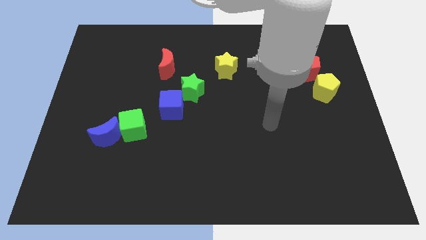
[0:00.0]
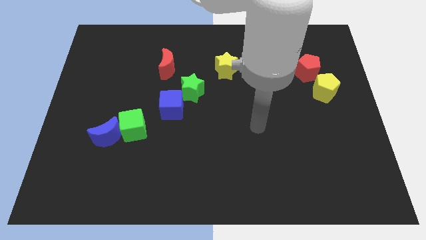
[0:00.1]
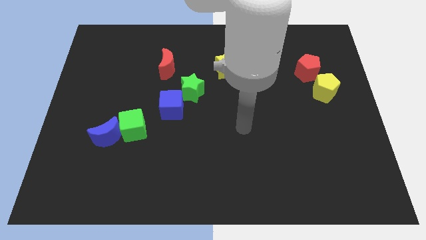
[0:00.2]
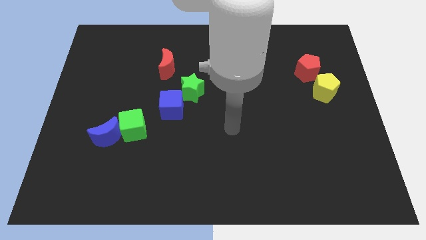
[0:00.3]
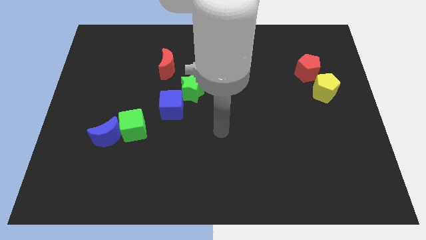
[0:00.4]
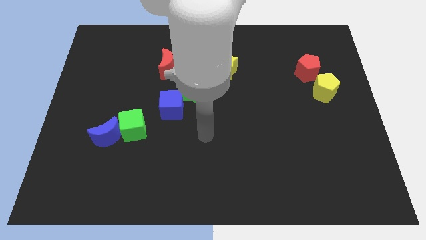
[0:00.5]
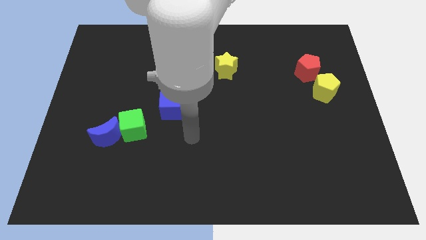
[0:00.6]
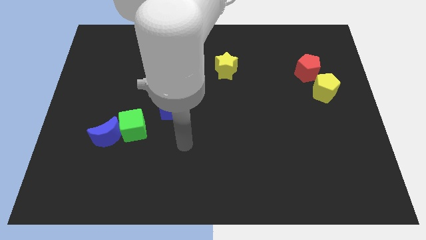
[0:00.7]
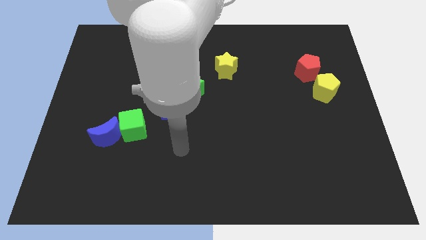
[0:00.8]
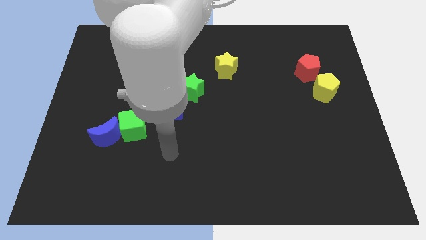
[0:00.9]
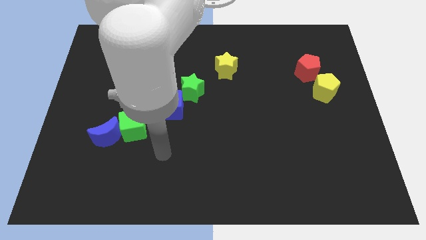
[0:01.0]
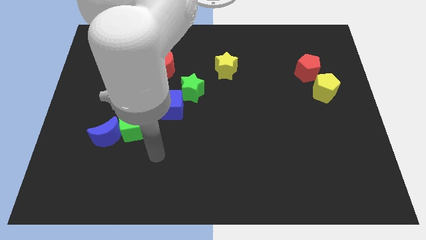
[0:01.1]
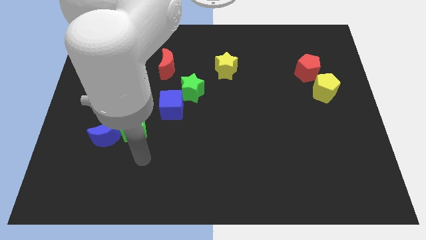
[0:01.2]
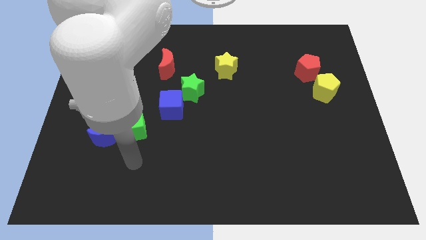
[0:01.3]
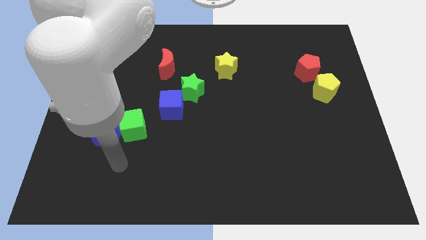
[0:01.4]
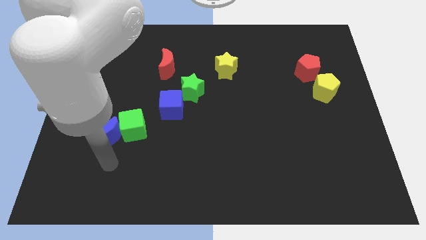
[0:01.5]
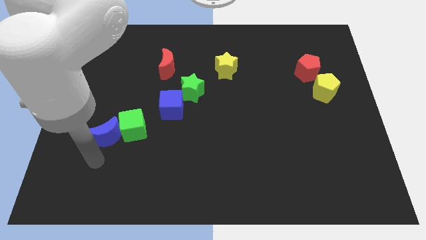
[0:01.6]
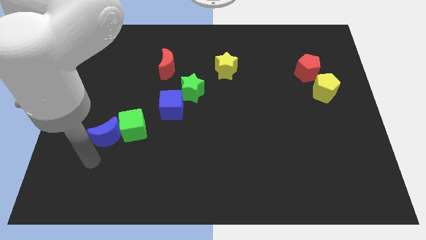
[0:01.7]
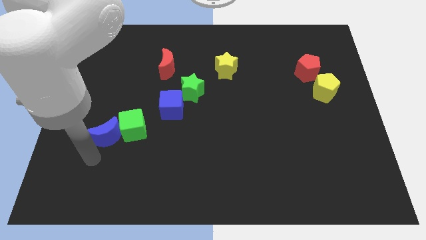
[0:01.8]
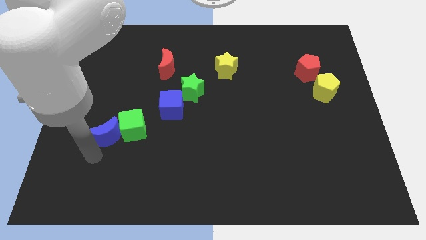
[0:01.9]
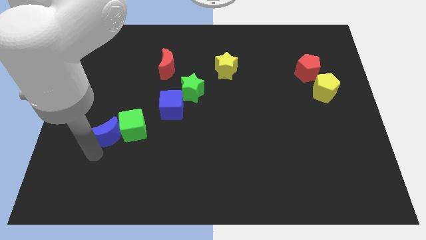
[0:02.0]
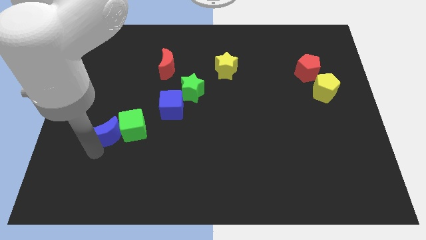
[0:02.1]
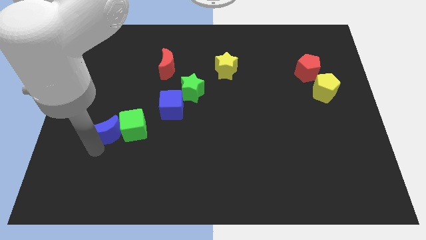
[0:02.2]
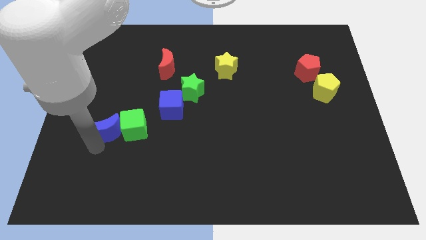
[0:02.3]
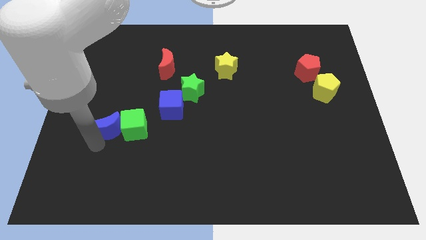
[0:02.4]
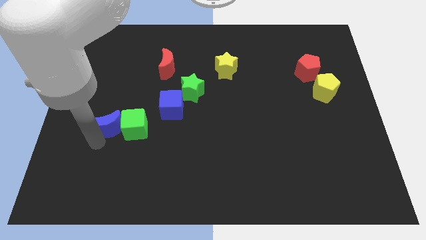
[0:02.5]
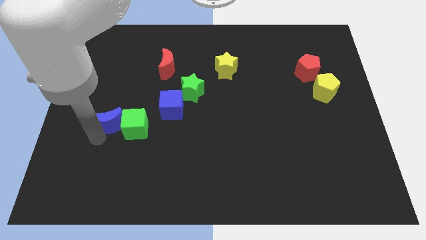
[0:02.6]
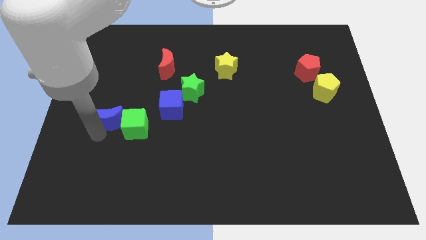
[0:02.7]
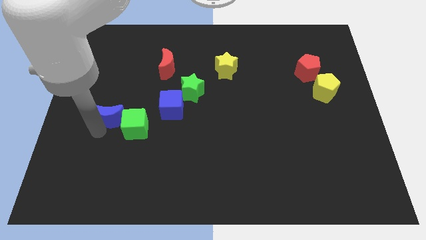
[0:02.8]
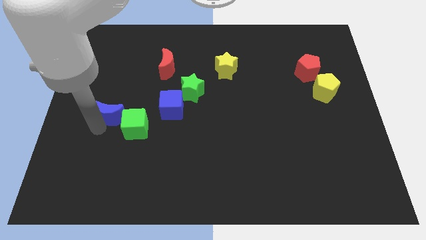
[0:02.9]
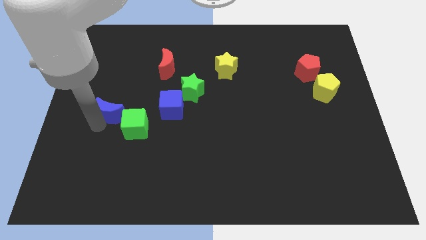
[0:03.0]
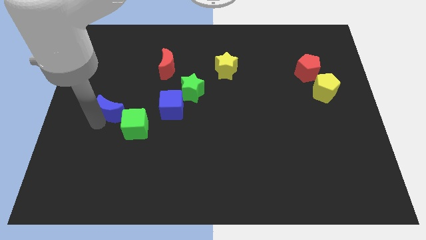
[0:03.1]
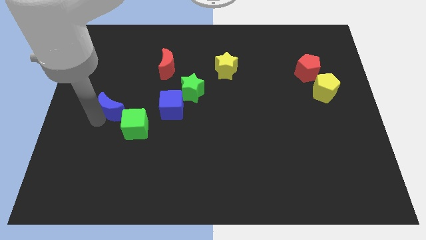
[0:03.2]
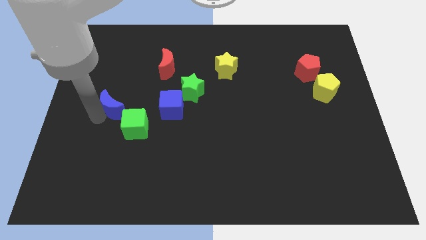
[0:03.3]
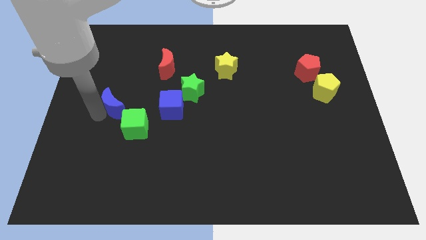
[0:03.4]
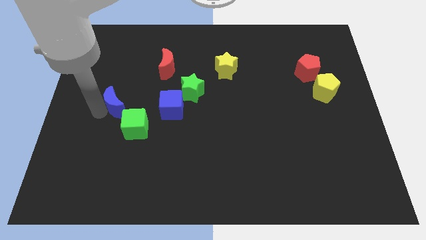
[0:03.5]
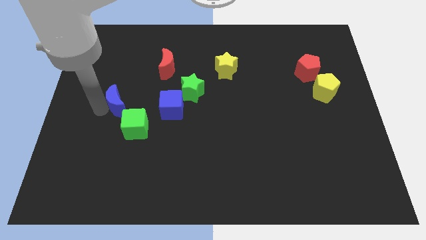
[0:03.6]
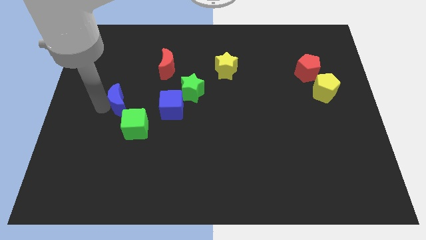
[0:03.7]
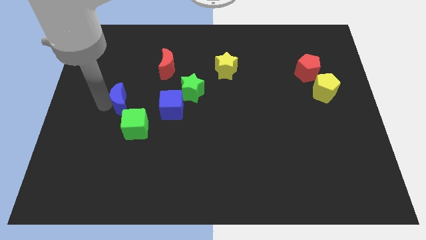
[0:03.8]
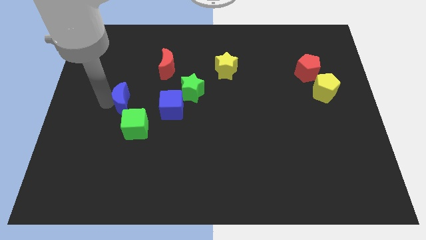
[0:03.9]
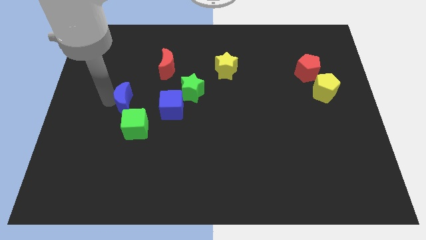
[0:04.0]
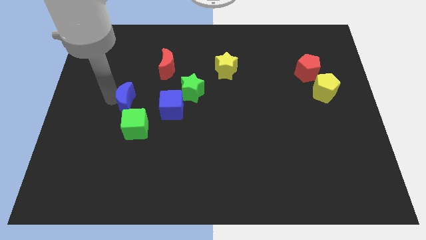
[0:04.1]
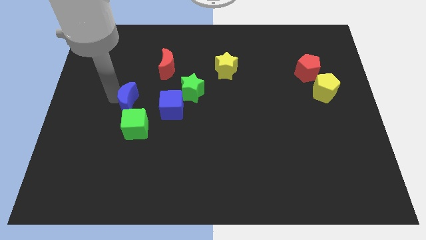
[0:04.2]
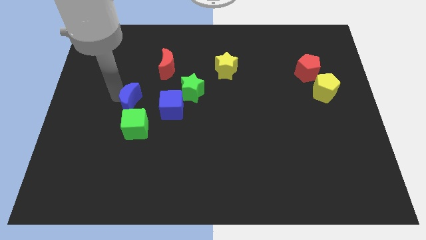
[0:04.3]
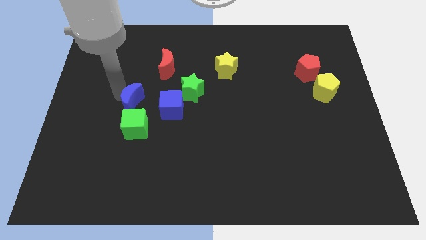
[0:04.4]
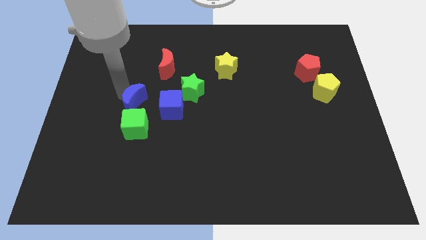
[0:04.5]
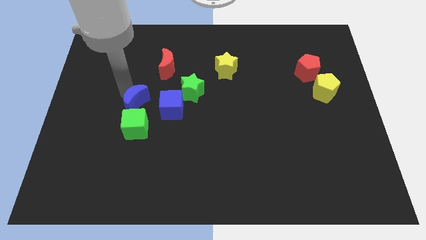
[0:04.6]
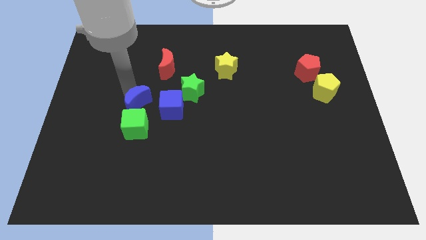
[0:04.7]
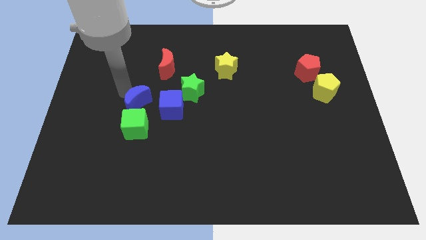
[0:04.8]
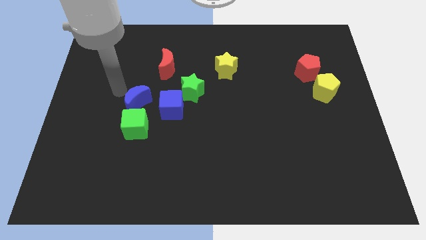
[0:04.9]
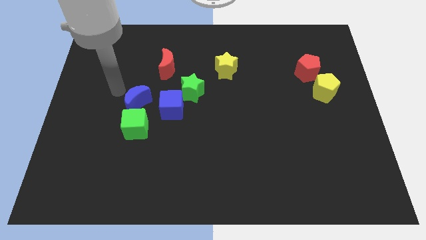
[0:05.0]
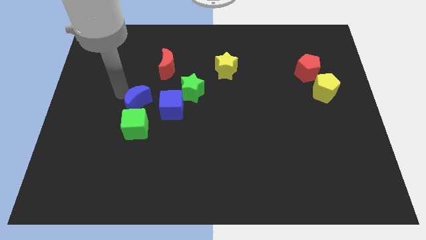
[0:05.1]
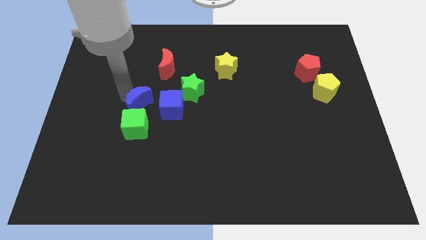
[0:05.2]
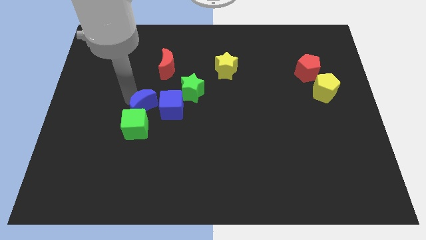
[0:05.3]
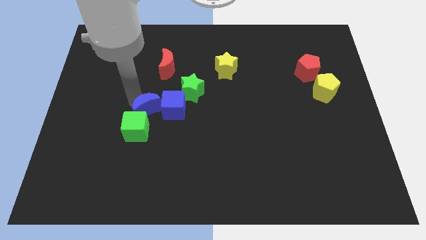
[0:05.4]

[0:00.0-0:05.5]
push the blue moon to the blue cube
